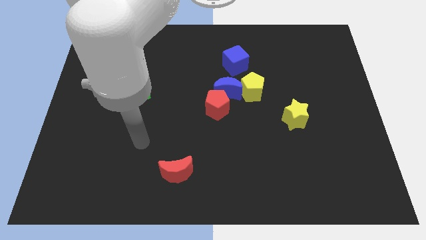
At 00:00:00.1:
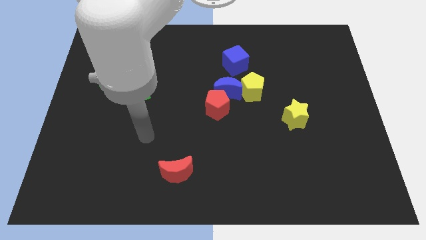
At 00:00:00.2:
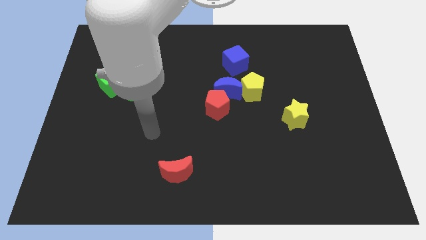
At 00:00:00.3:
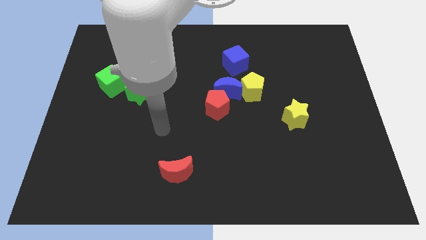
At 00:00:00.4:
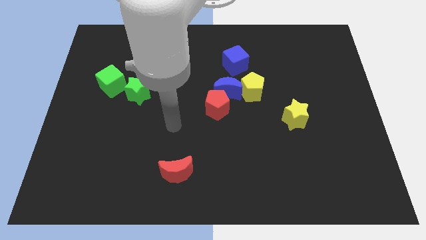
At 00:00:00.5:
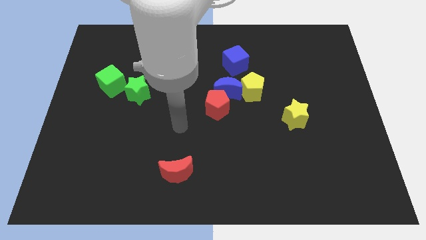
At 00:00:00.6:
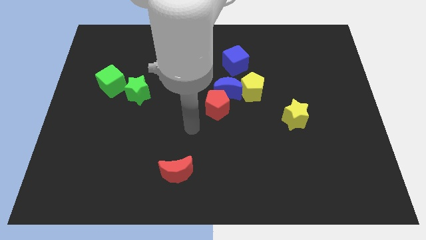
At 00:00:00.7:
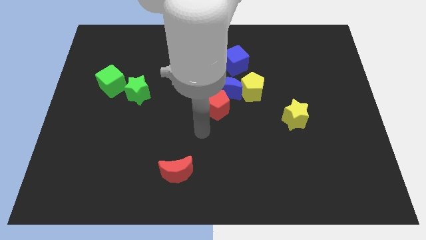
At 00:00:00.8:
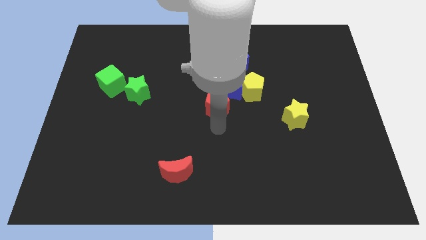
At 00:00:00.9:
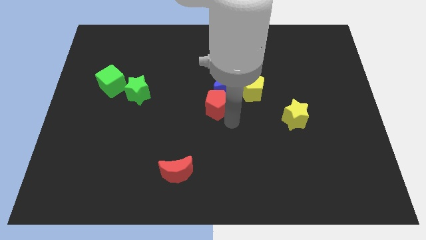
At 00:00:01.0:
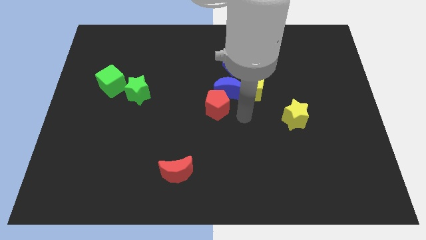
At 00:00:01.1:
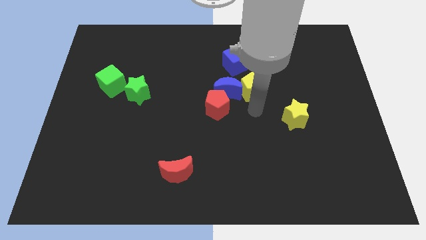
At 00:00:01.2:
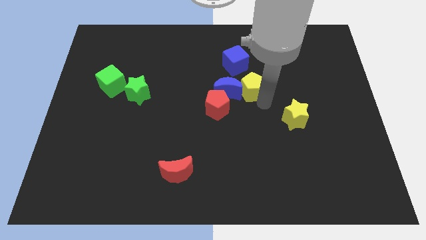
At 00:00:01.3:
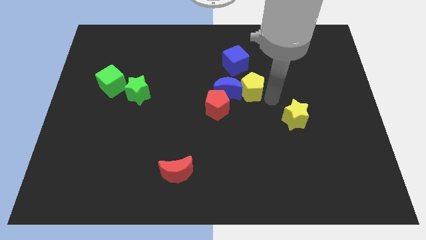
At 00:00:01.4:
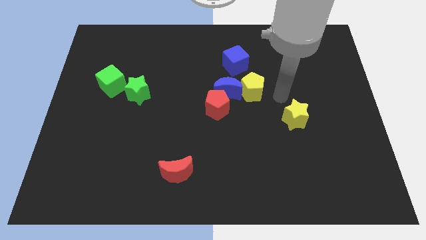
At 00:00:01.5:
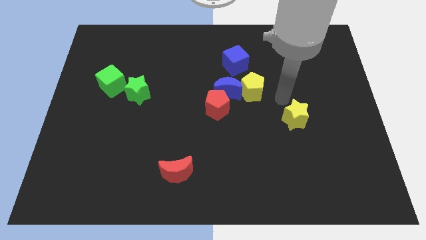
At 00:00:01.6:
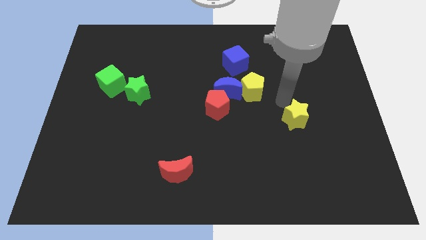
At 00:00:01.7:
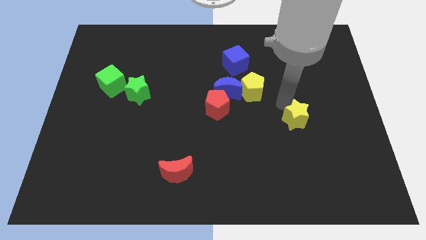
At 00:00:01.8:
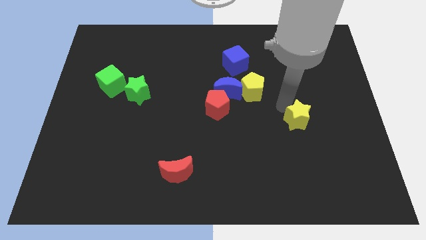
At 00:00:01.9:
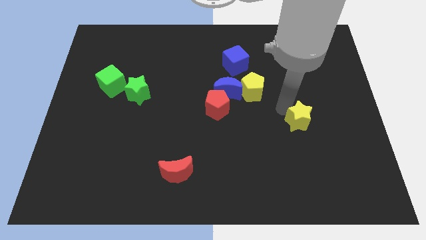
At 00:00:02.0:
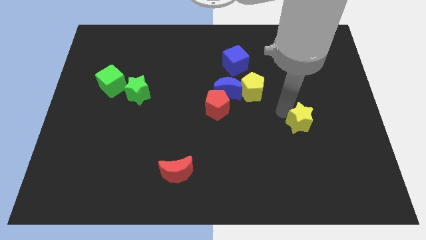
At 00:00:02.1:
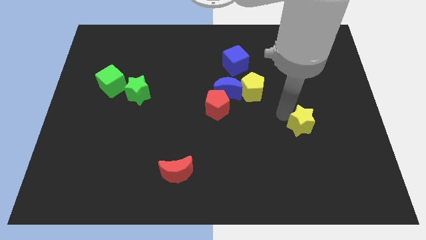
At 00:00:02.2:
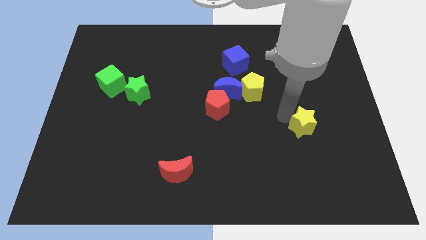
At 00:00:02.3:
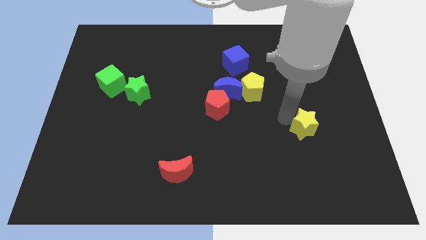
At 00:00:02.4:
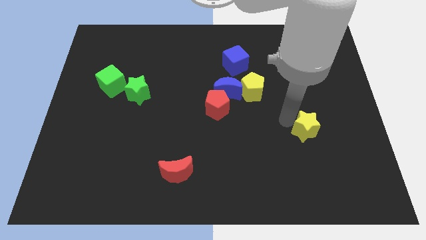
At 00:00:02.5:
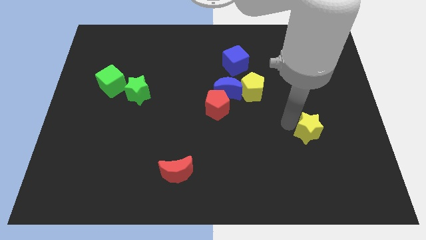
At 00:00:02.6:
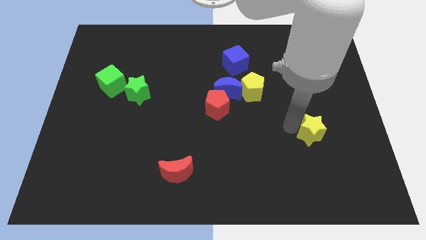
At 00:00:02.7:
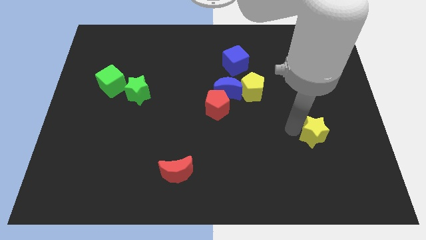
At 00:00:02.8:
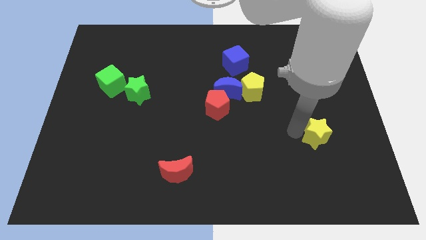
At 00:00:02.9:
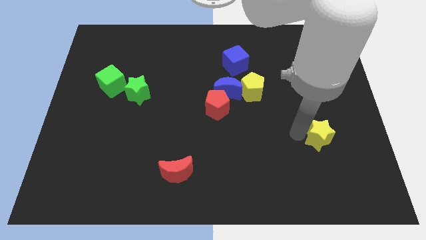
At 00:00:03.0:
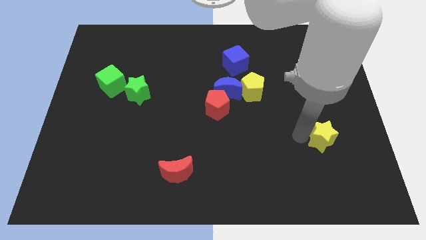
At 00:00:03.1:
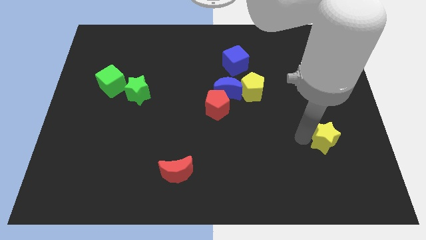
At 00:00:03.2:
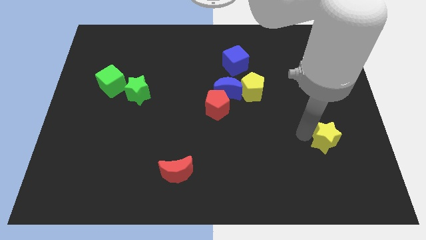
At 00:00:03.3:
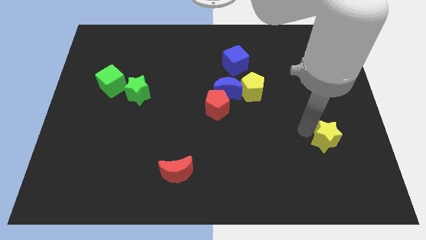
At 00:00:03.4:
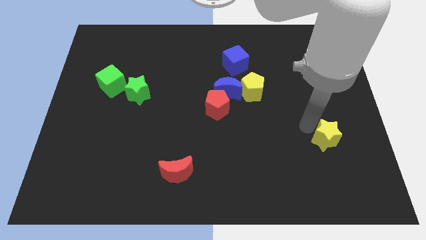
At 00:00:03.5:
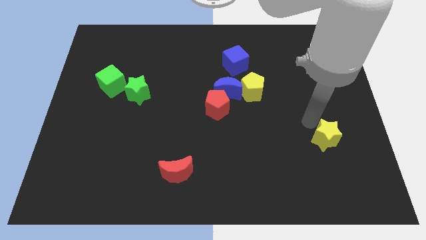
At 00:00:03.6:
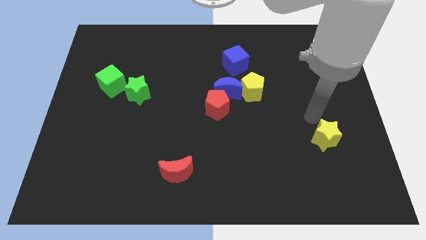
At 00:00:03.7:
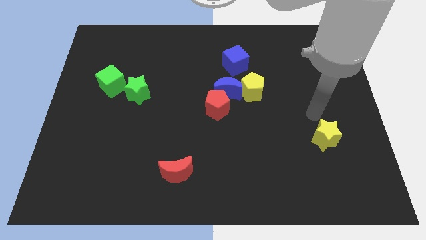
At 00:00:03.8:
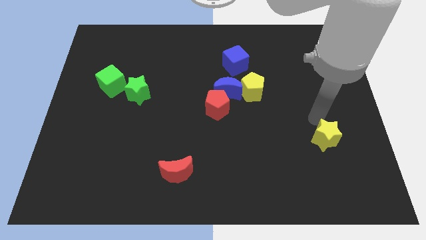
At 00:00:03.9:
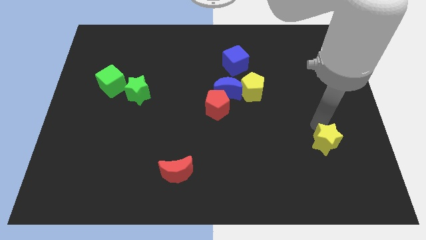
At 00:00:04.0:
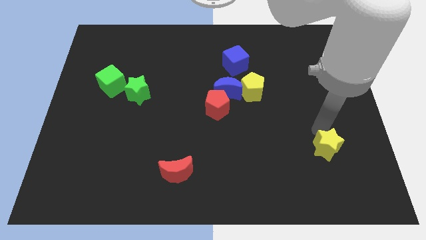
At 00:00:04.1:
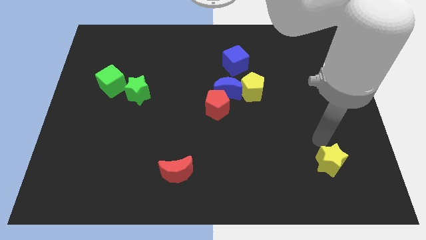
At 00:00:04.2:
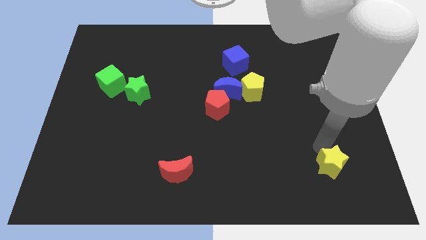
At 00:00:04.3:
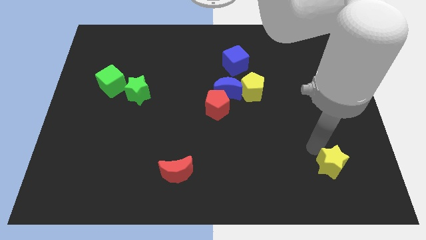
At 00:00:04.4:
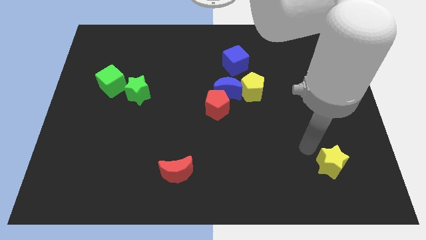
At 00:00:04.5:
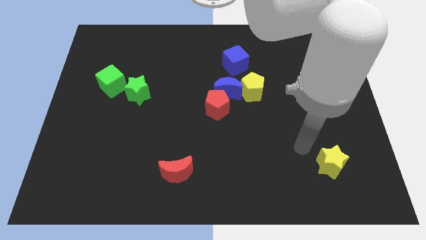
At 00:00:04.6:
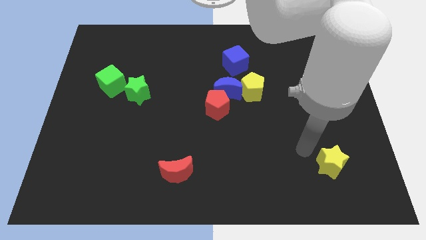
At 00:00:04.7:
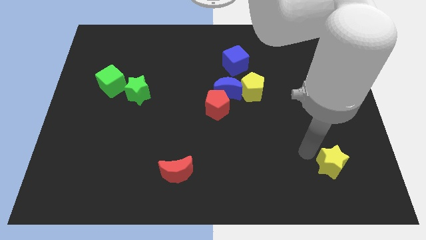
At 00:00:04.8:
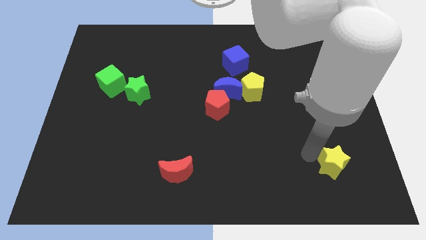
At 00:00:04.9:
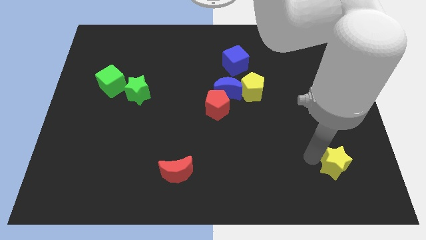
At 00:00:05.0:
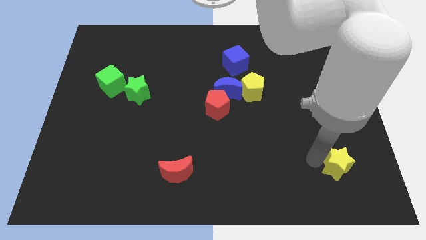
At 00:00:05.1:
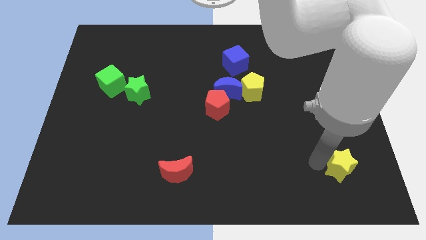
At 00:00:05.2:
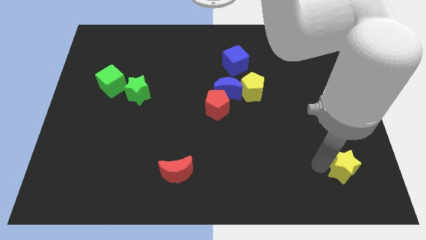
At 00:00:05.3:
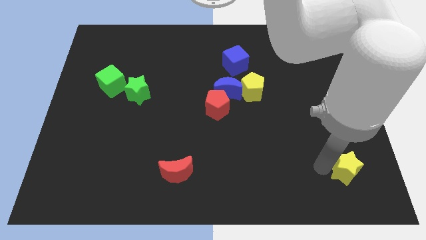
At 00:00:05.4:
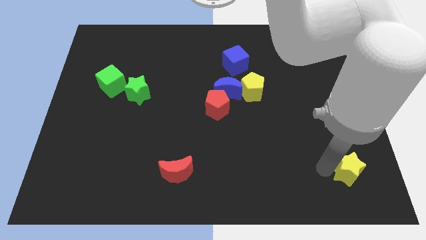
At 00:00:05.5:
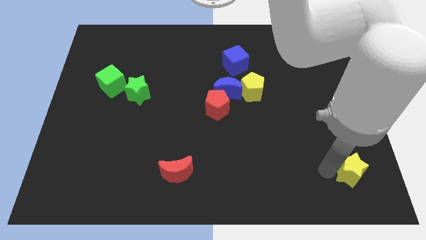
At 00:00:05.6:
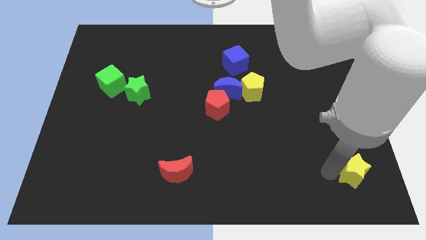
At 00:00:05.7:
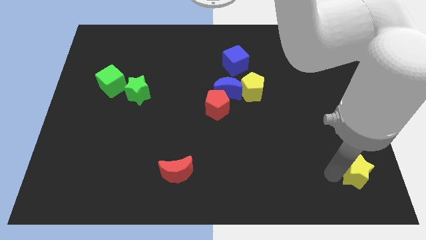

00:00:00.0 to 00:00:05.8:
push the yellow star to the bottom right corner

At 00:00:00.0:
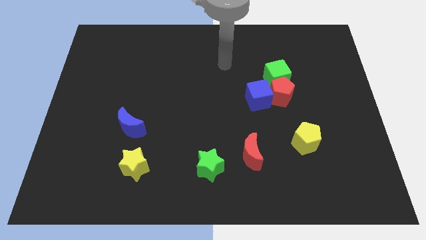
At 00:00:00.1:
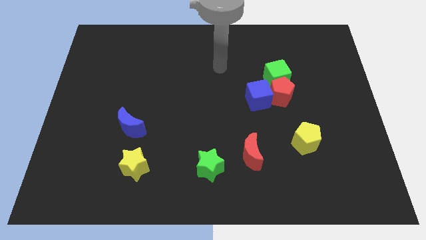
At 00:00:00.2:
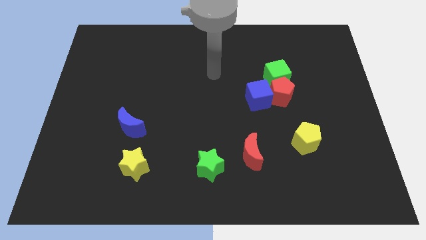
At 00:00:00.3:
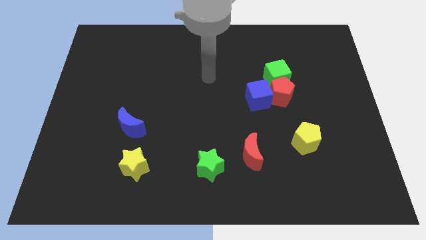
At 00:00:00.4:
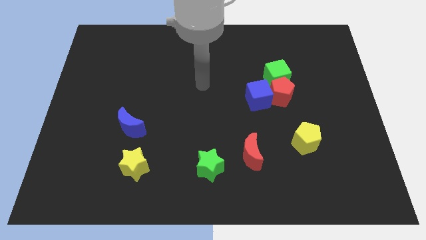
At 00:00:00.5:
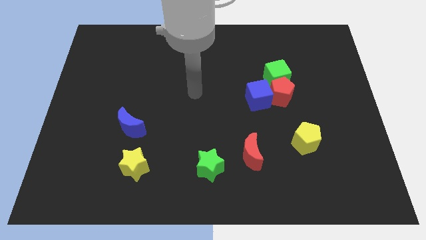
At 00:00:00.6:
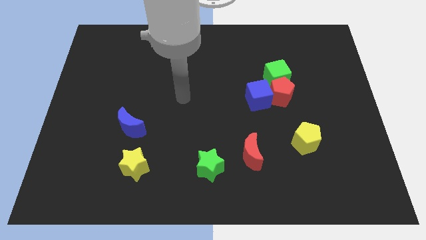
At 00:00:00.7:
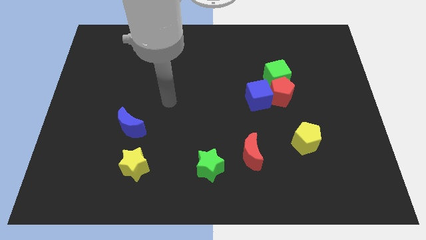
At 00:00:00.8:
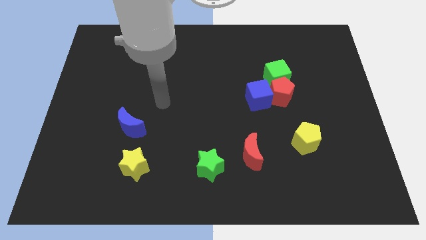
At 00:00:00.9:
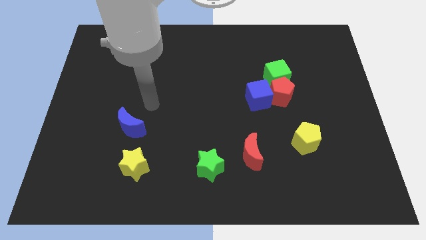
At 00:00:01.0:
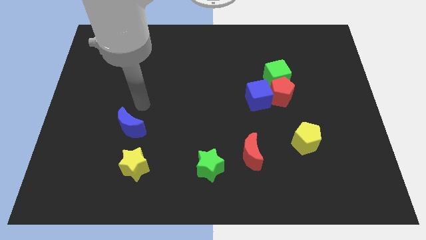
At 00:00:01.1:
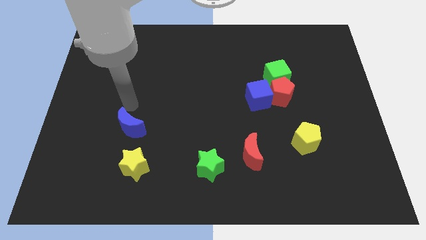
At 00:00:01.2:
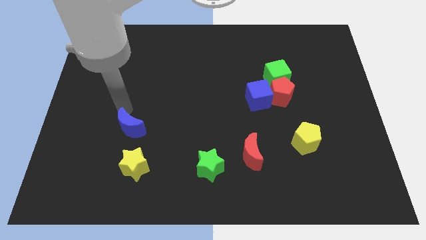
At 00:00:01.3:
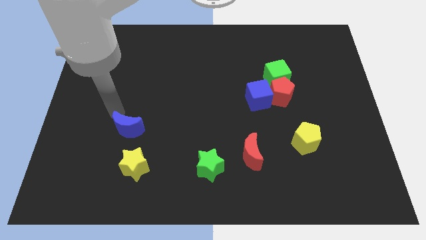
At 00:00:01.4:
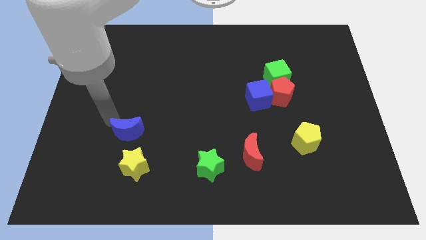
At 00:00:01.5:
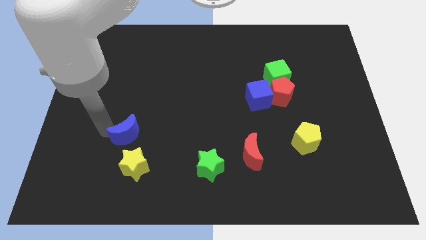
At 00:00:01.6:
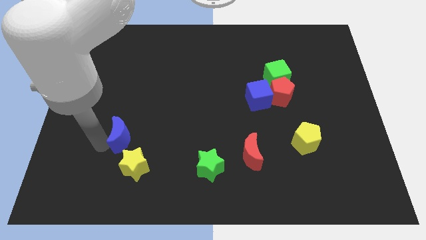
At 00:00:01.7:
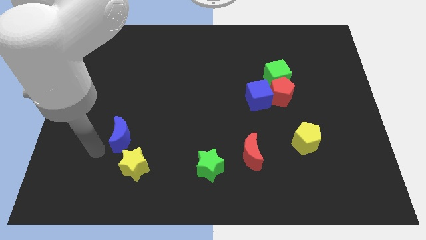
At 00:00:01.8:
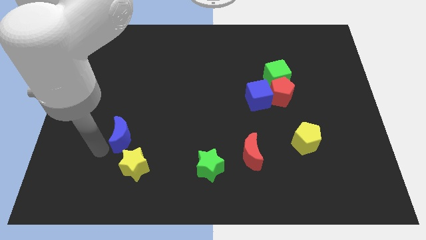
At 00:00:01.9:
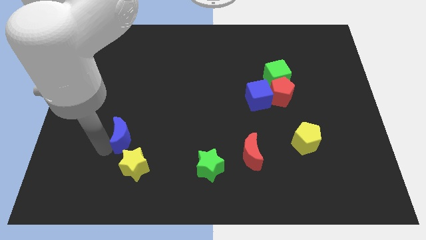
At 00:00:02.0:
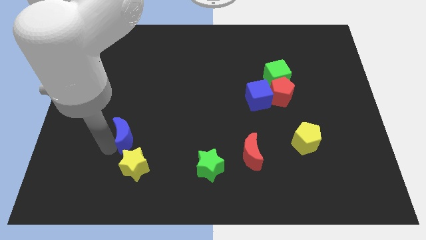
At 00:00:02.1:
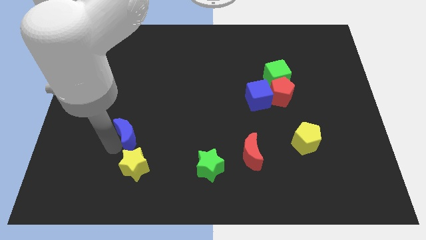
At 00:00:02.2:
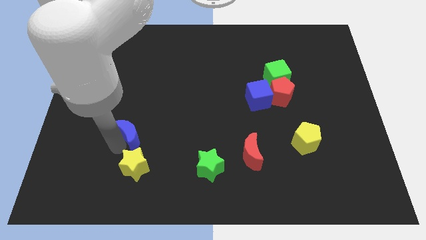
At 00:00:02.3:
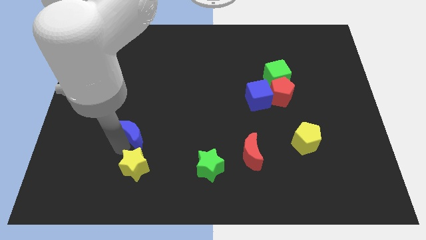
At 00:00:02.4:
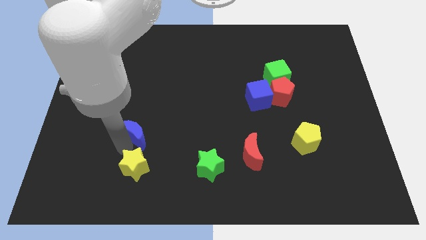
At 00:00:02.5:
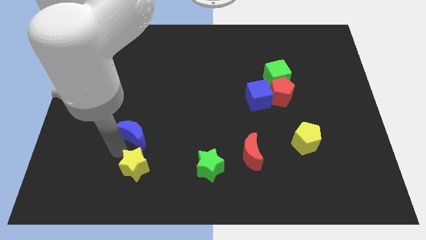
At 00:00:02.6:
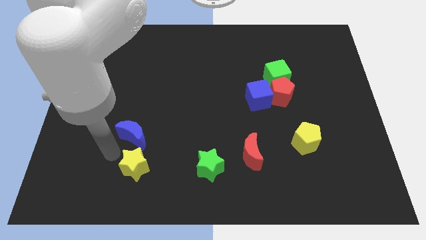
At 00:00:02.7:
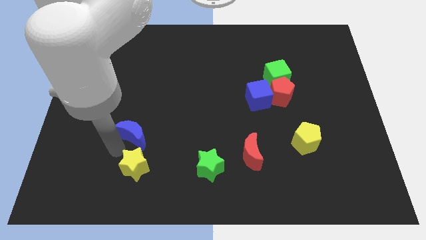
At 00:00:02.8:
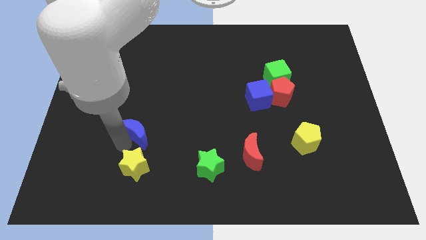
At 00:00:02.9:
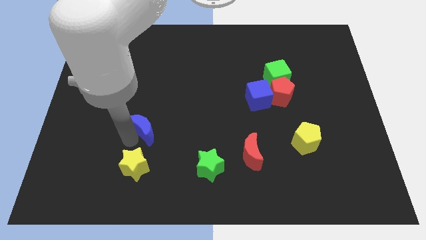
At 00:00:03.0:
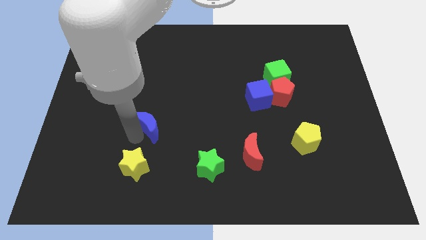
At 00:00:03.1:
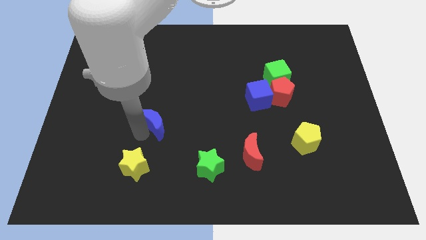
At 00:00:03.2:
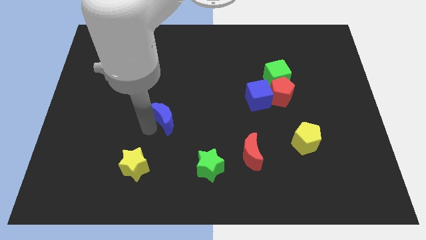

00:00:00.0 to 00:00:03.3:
slide the blue moon to the middle
